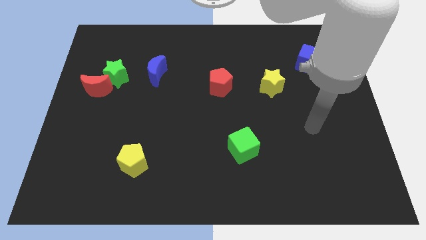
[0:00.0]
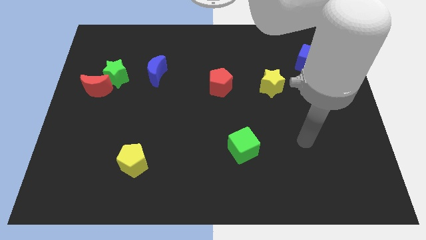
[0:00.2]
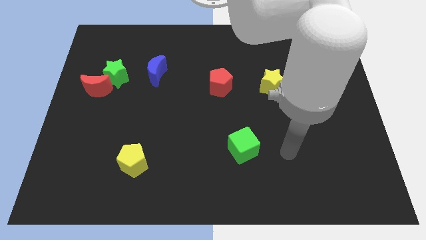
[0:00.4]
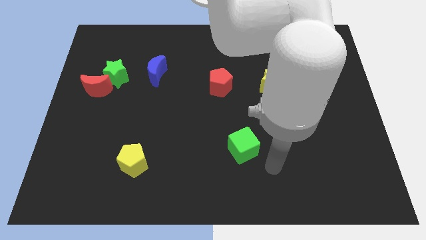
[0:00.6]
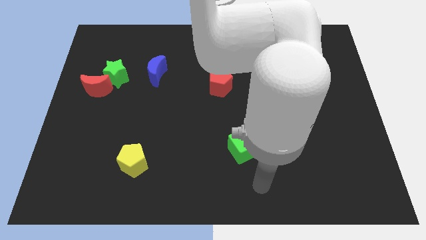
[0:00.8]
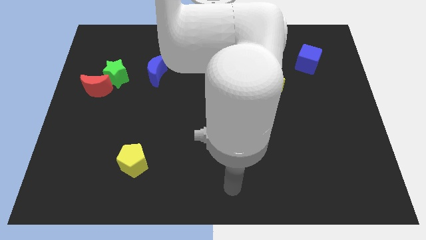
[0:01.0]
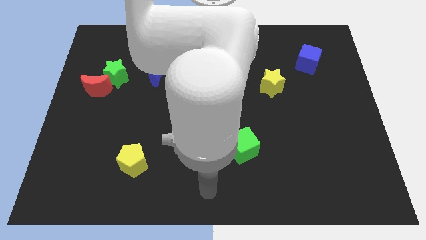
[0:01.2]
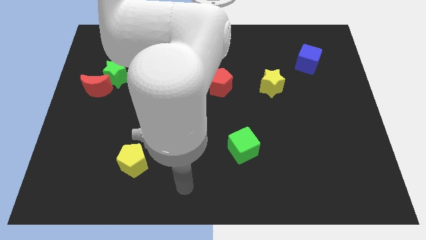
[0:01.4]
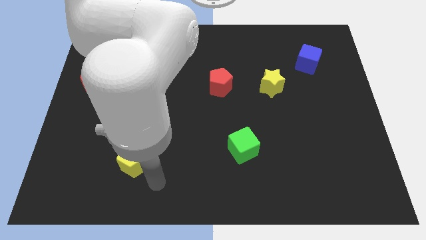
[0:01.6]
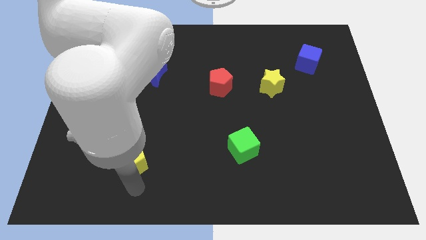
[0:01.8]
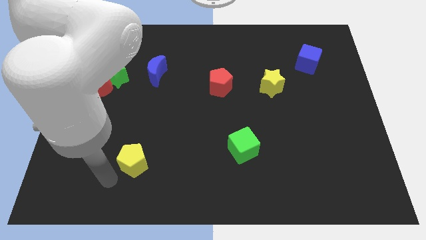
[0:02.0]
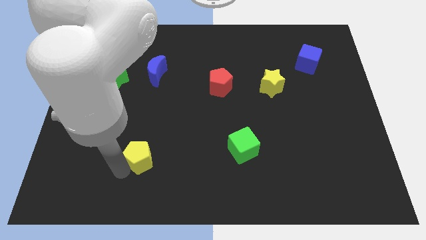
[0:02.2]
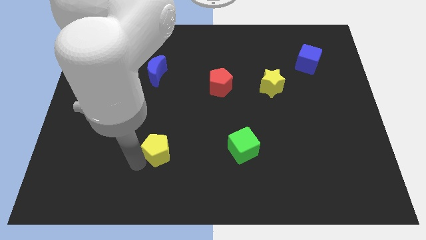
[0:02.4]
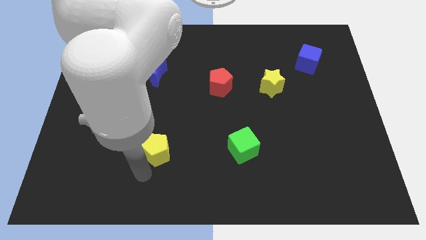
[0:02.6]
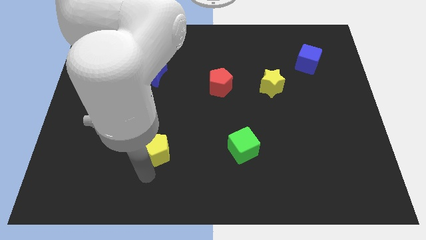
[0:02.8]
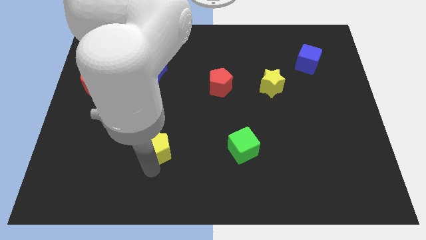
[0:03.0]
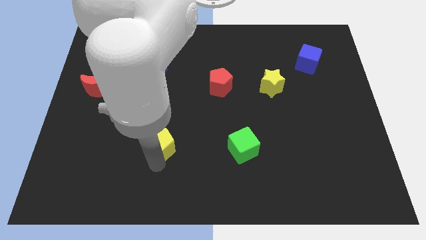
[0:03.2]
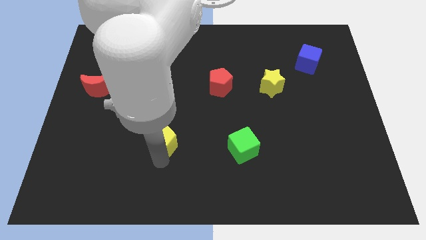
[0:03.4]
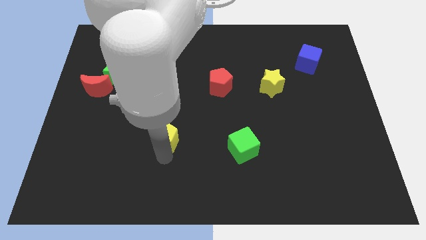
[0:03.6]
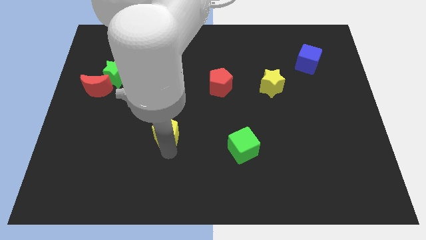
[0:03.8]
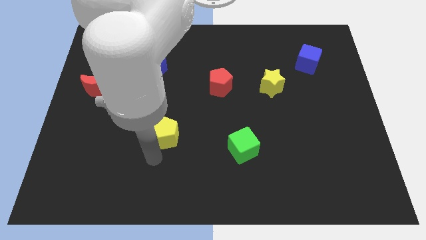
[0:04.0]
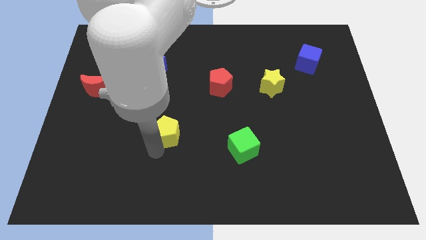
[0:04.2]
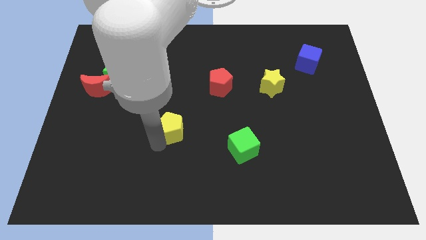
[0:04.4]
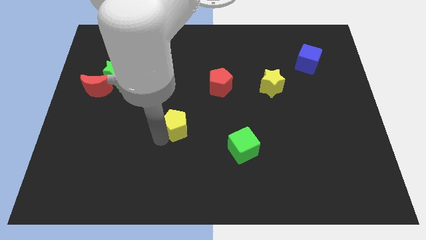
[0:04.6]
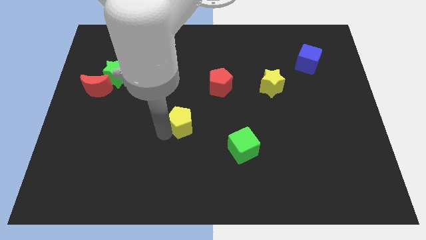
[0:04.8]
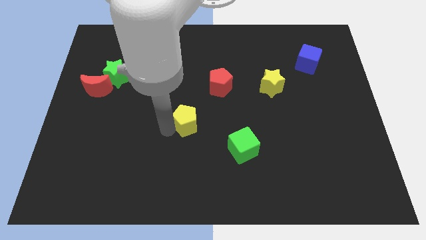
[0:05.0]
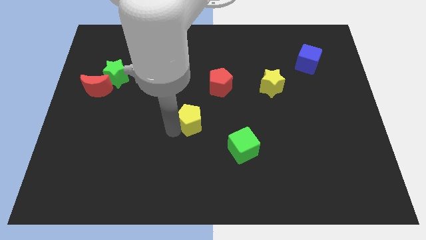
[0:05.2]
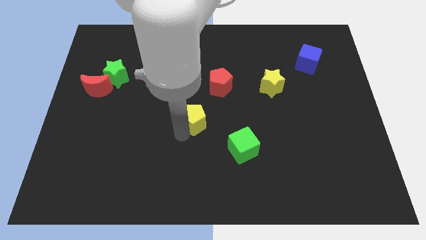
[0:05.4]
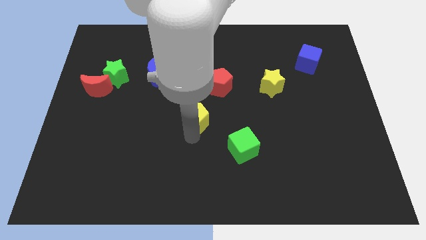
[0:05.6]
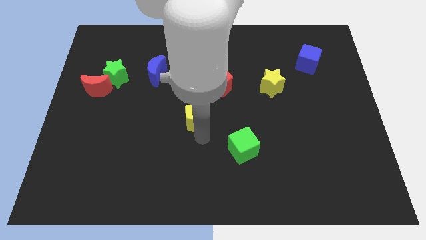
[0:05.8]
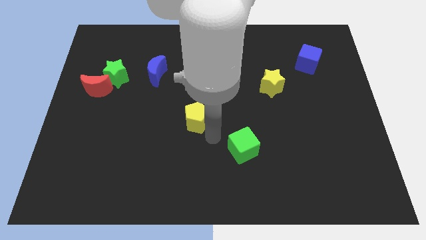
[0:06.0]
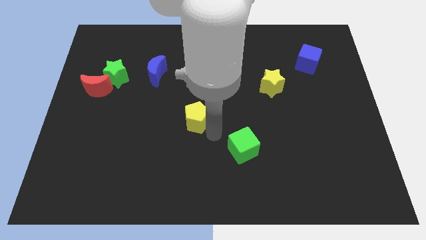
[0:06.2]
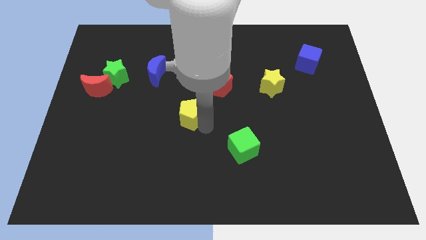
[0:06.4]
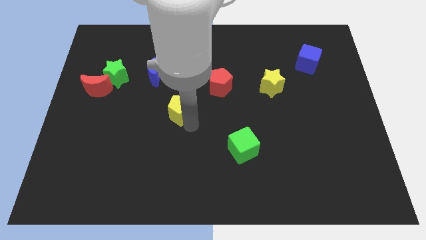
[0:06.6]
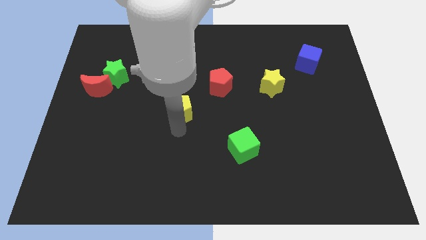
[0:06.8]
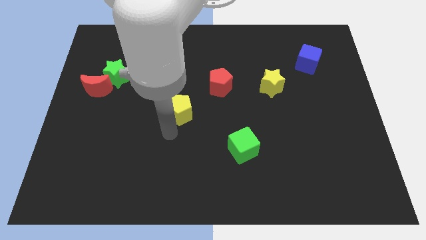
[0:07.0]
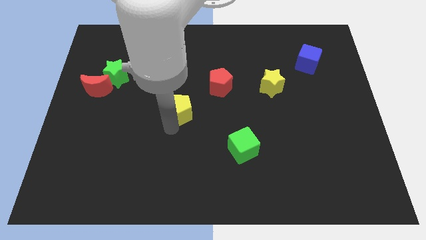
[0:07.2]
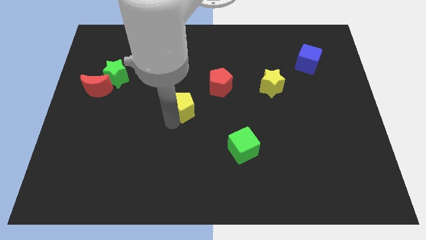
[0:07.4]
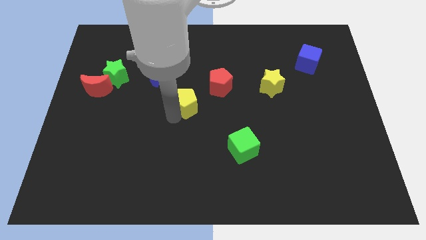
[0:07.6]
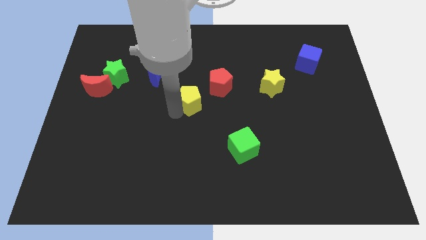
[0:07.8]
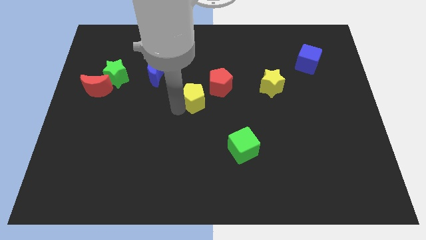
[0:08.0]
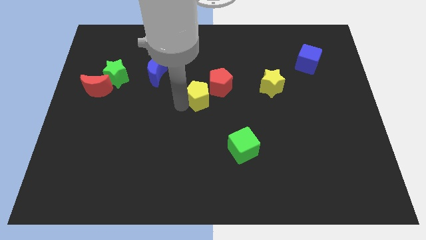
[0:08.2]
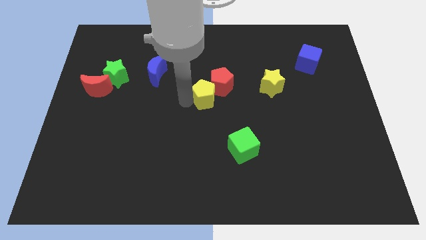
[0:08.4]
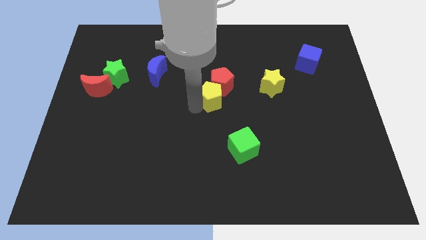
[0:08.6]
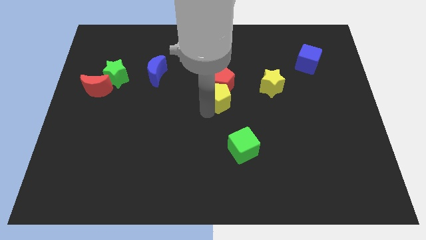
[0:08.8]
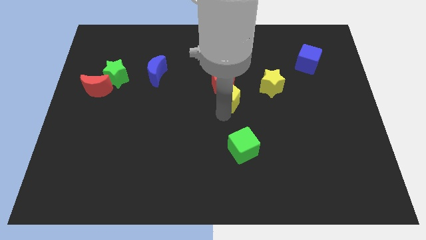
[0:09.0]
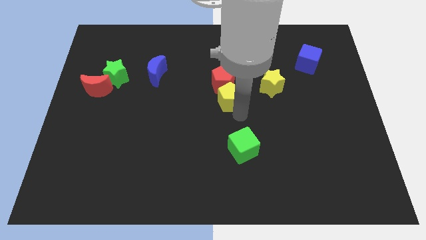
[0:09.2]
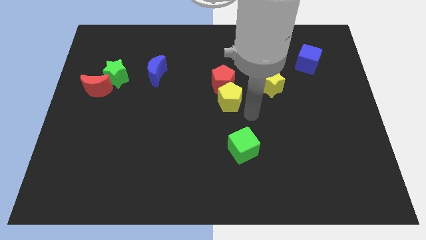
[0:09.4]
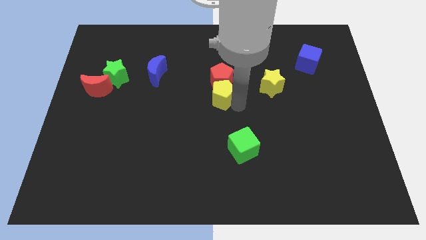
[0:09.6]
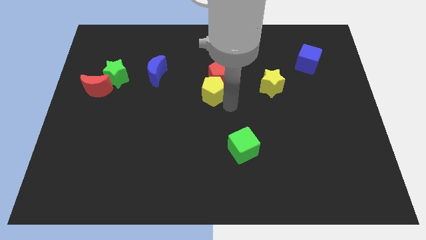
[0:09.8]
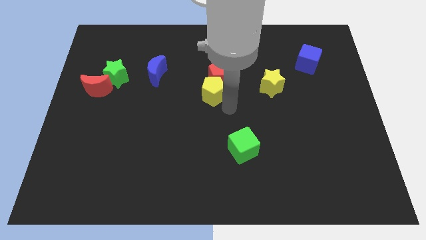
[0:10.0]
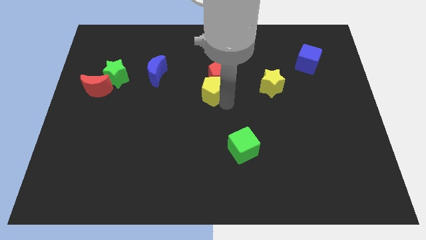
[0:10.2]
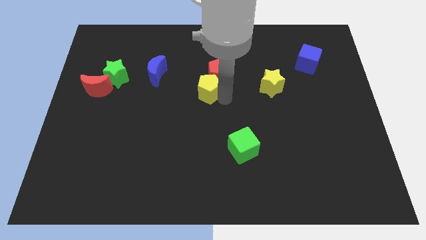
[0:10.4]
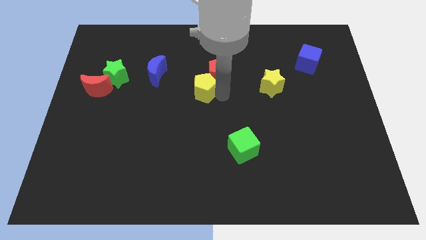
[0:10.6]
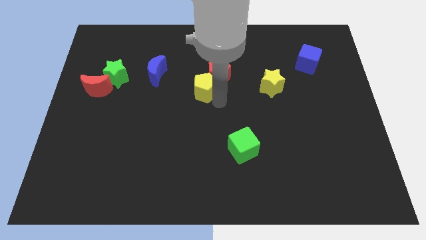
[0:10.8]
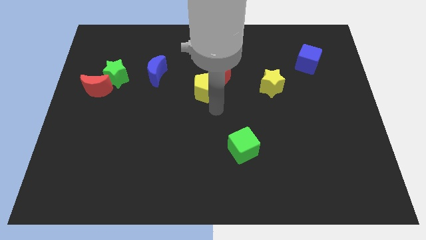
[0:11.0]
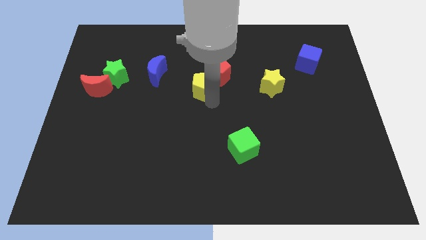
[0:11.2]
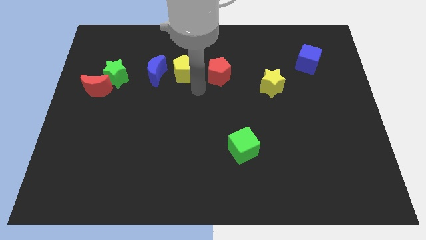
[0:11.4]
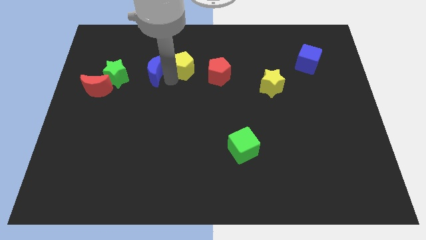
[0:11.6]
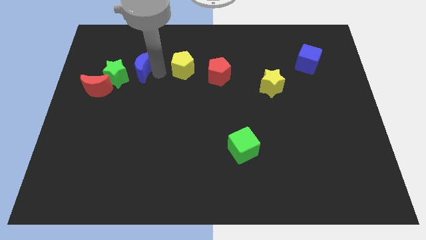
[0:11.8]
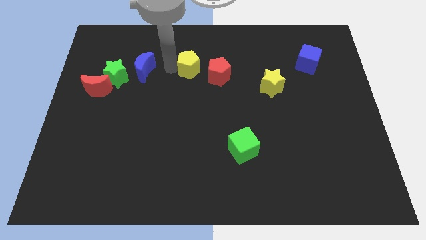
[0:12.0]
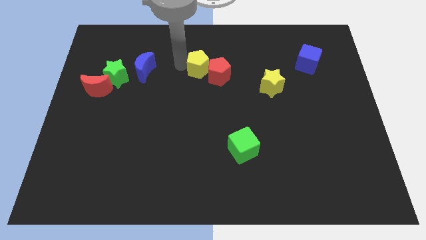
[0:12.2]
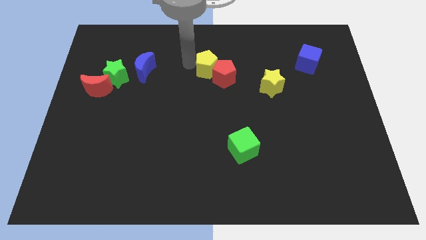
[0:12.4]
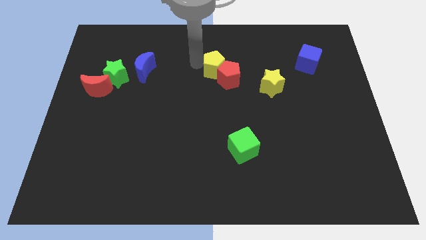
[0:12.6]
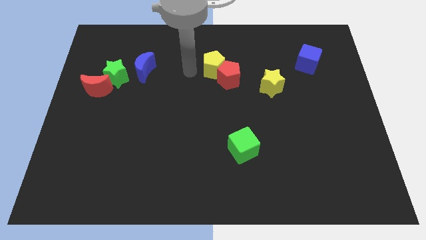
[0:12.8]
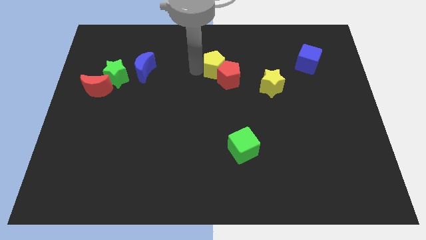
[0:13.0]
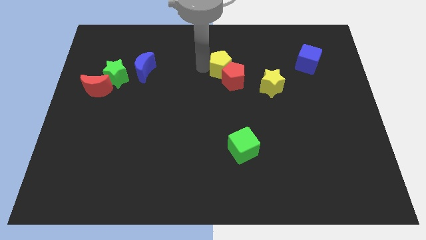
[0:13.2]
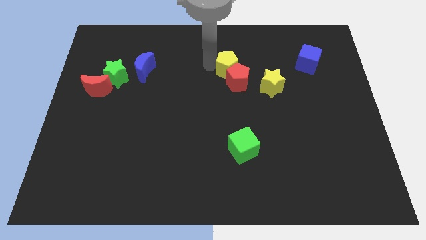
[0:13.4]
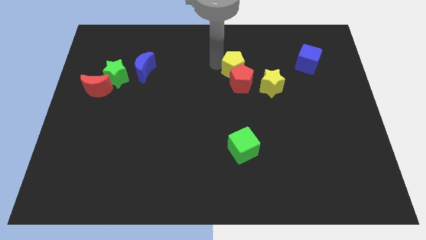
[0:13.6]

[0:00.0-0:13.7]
slide the yellow pentagon to the top right of the red pentagon
